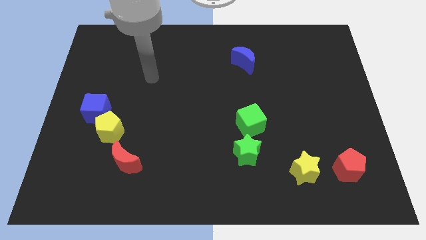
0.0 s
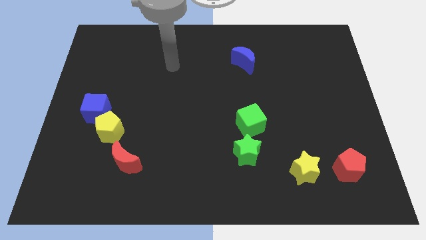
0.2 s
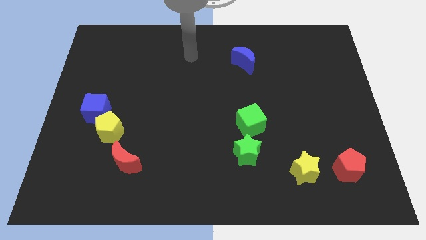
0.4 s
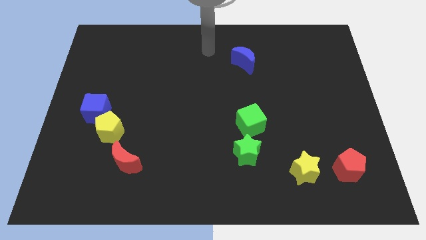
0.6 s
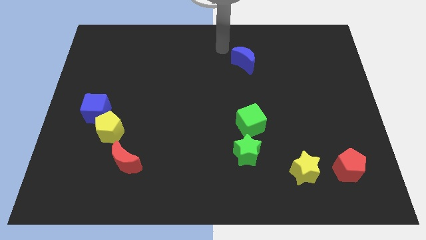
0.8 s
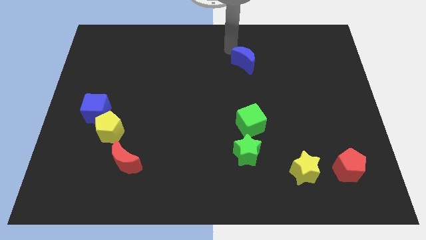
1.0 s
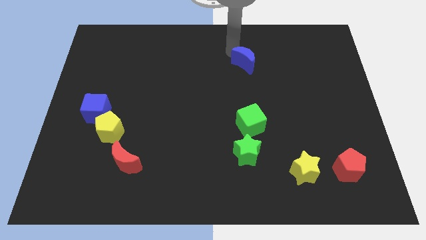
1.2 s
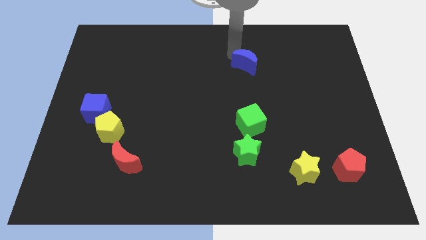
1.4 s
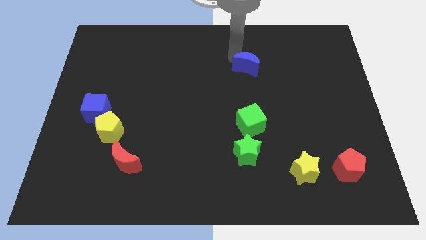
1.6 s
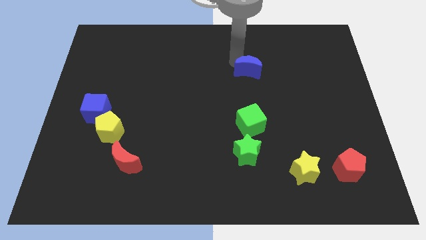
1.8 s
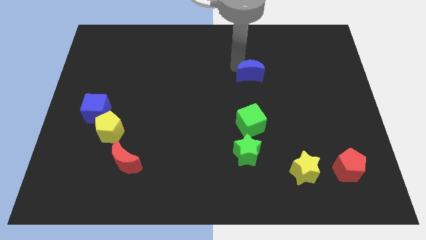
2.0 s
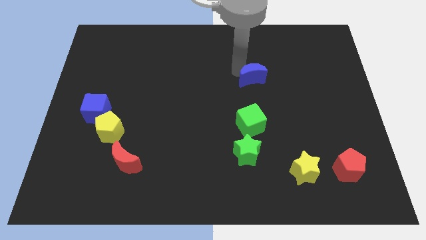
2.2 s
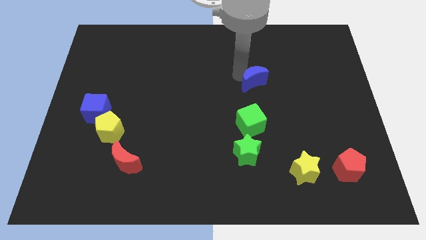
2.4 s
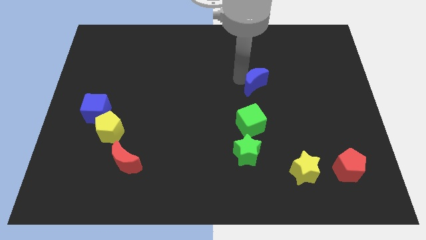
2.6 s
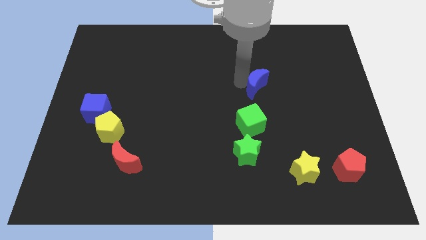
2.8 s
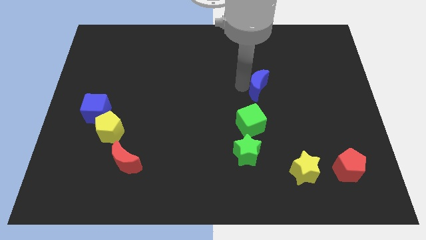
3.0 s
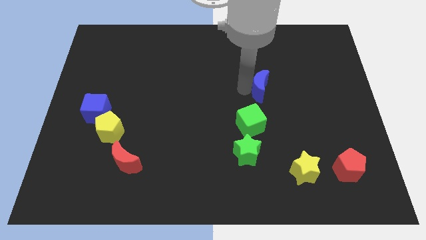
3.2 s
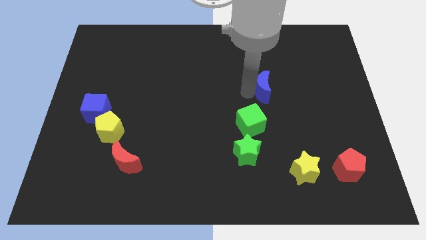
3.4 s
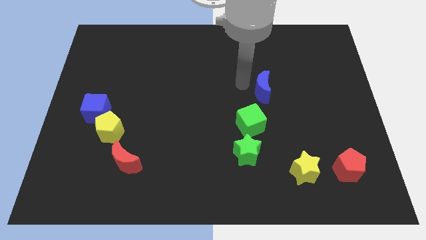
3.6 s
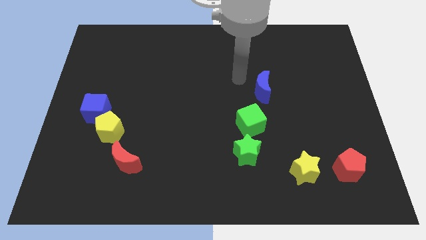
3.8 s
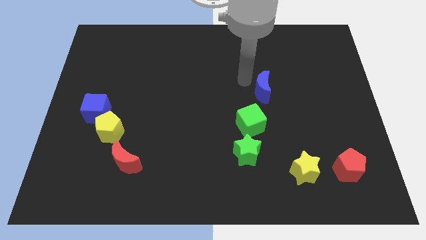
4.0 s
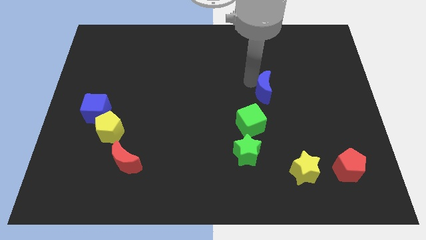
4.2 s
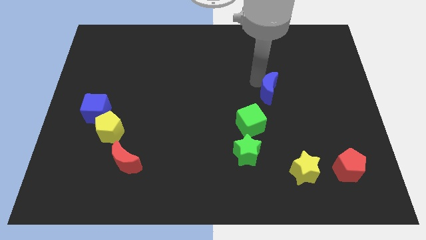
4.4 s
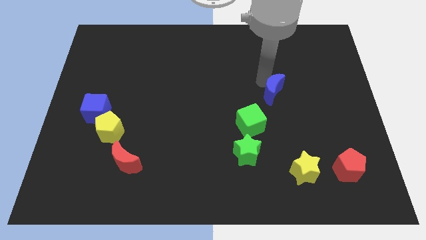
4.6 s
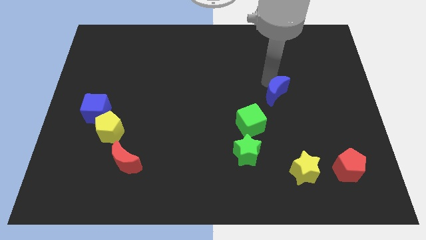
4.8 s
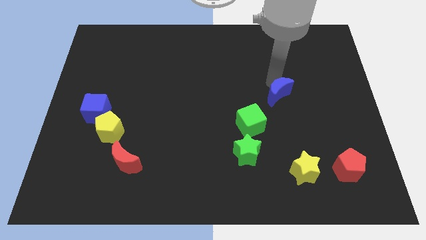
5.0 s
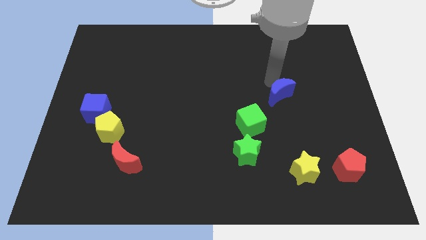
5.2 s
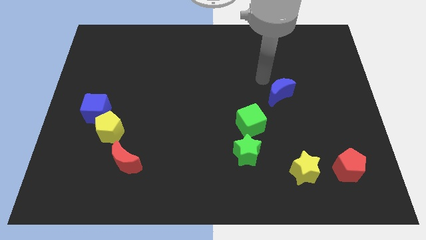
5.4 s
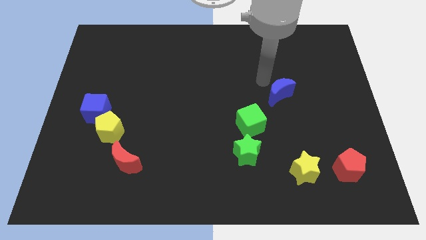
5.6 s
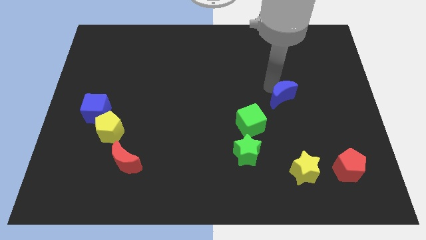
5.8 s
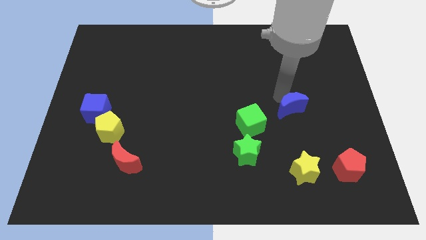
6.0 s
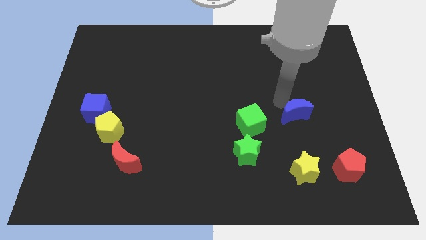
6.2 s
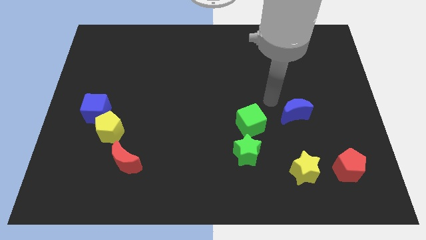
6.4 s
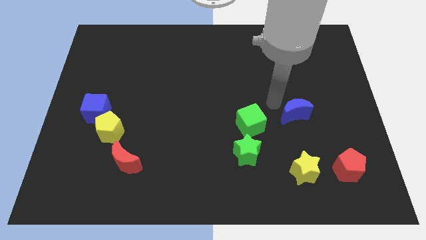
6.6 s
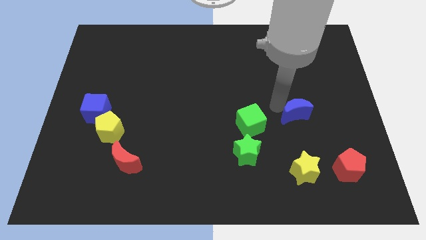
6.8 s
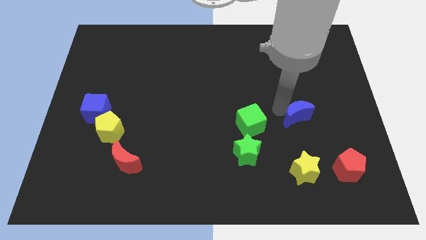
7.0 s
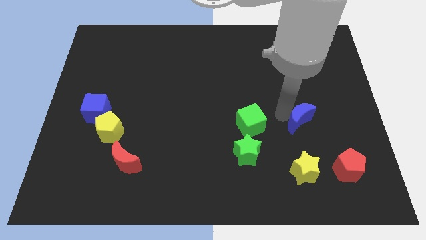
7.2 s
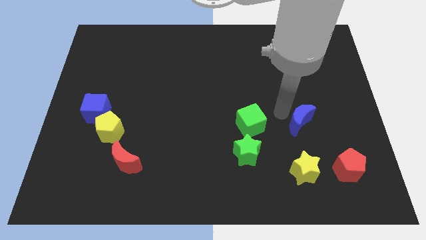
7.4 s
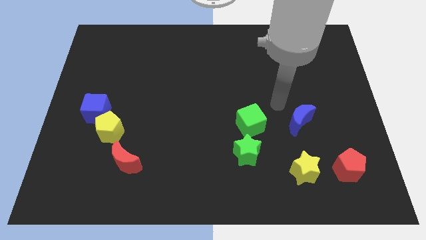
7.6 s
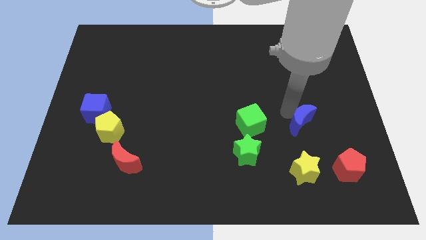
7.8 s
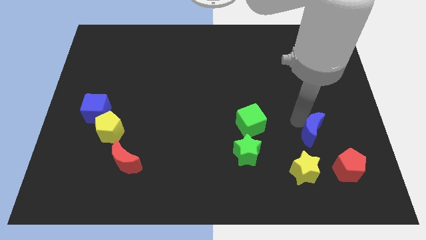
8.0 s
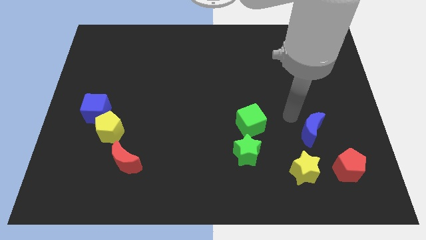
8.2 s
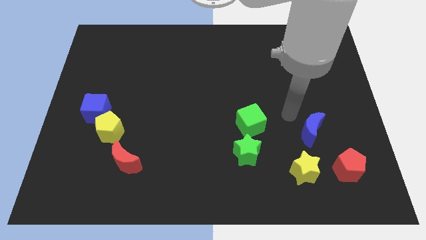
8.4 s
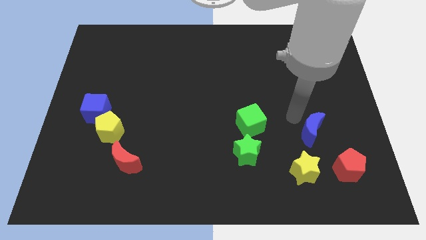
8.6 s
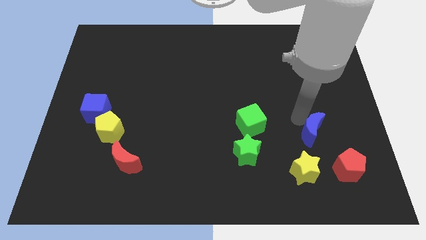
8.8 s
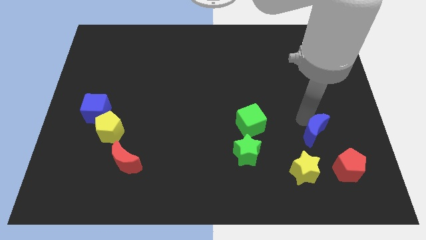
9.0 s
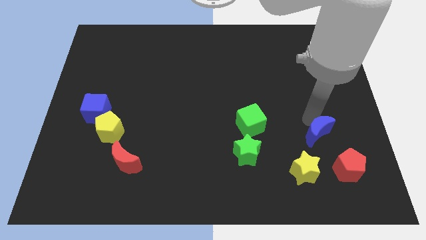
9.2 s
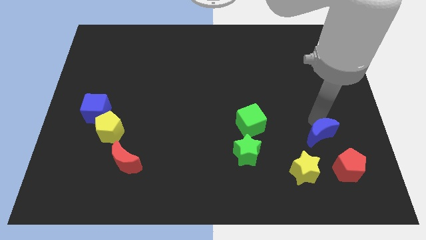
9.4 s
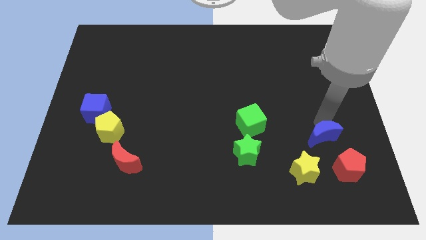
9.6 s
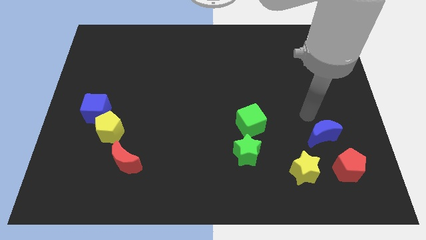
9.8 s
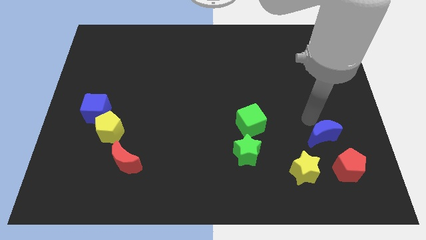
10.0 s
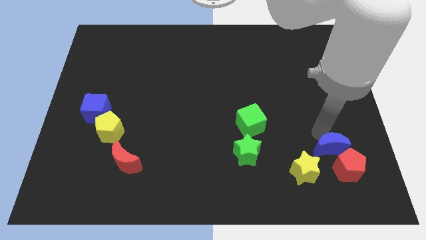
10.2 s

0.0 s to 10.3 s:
put the blue moon to the red pentagon

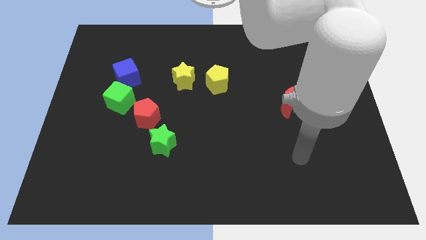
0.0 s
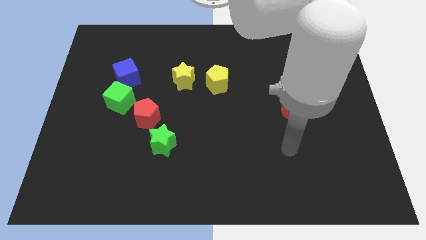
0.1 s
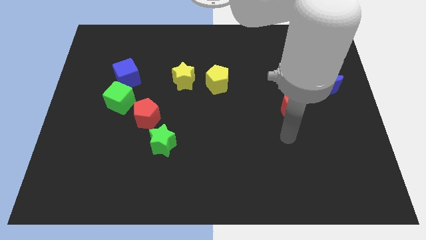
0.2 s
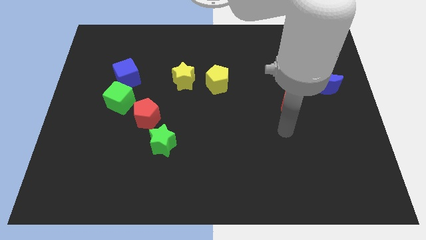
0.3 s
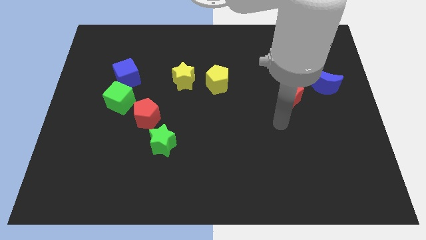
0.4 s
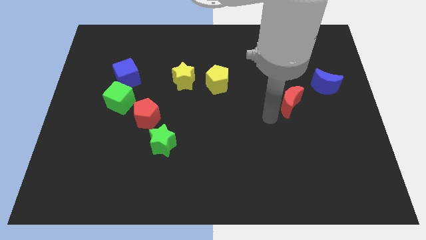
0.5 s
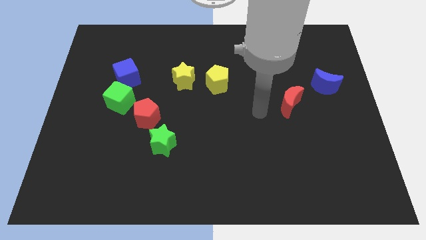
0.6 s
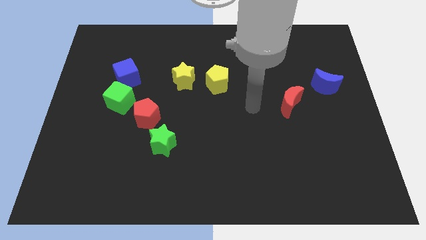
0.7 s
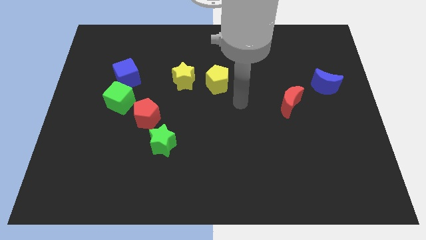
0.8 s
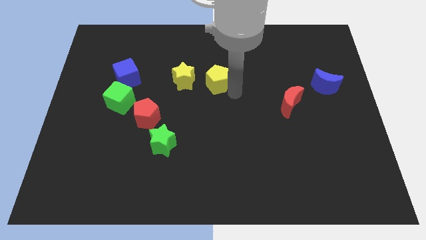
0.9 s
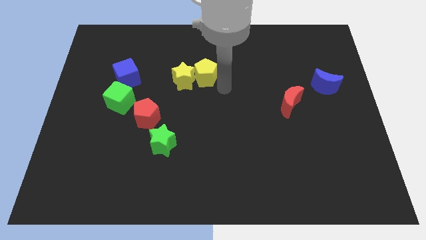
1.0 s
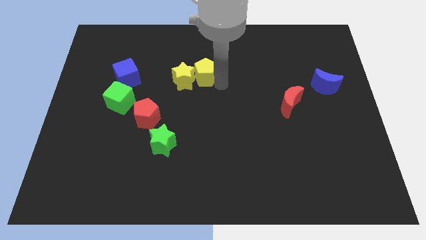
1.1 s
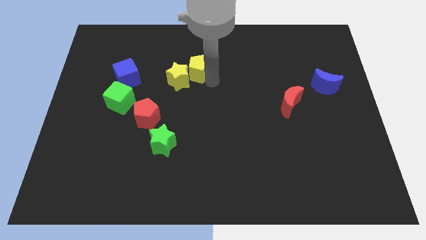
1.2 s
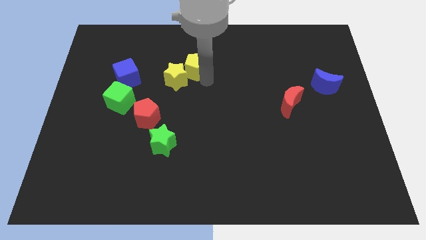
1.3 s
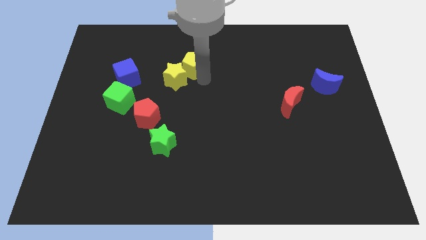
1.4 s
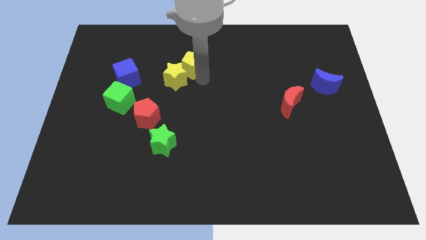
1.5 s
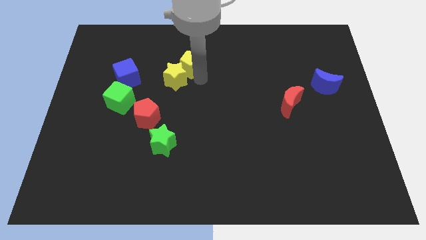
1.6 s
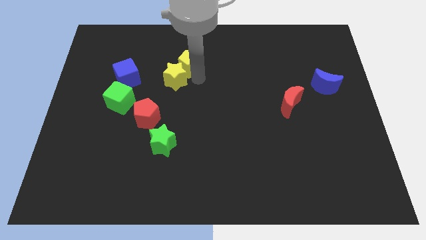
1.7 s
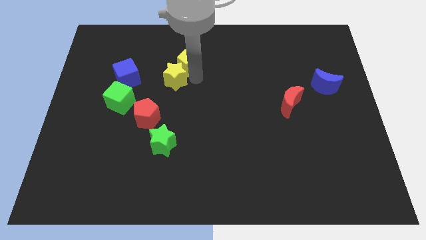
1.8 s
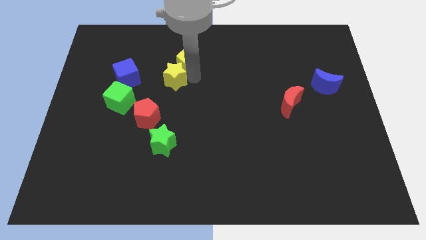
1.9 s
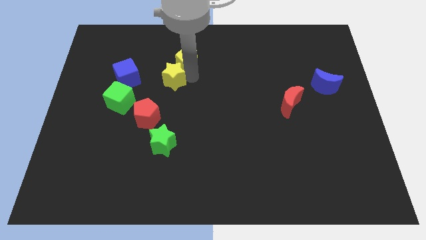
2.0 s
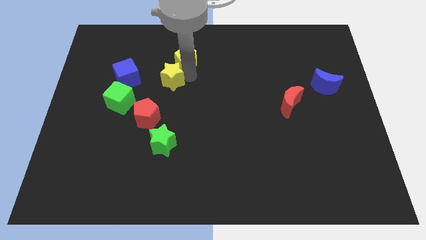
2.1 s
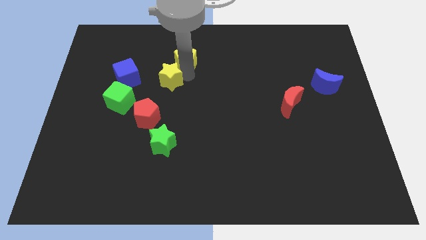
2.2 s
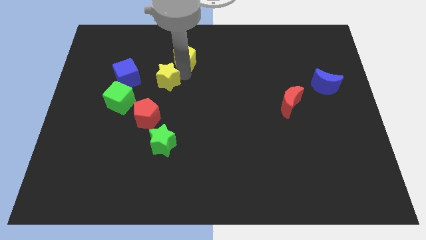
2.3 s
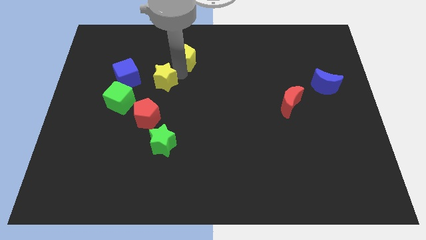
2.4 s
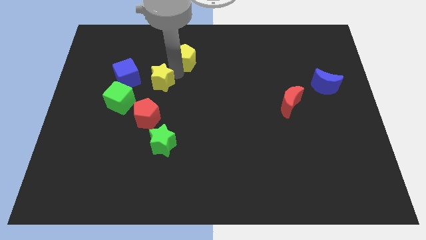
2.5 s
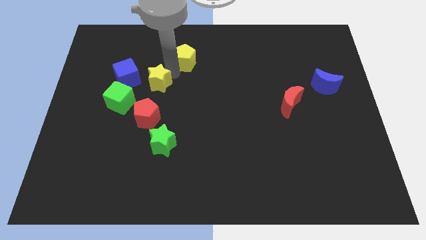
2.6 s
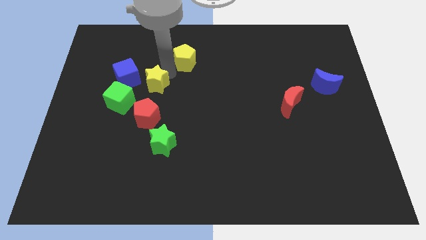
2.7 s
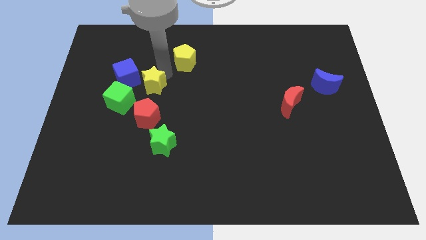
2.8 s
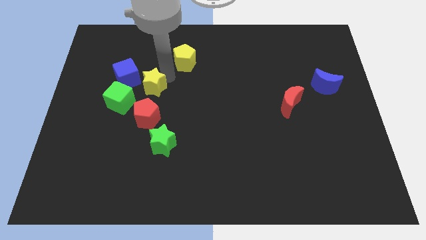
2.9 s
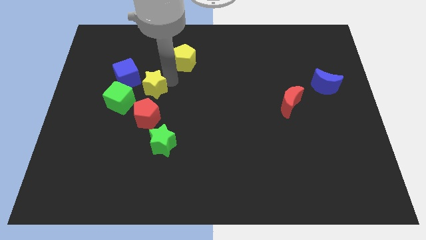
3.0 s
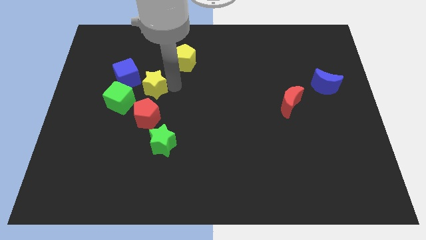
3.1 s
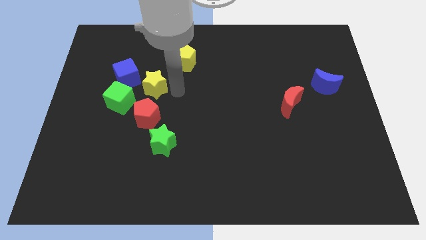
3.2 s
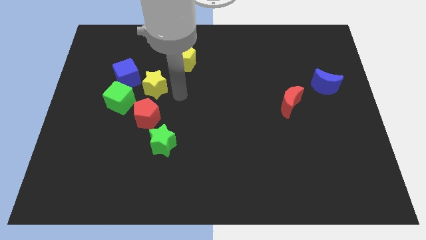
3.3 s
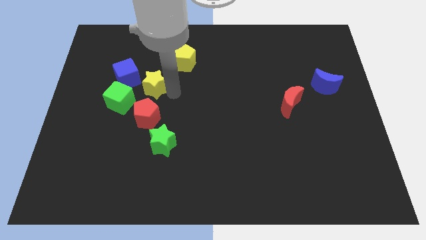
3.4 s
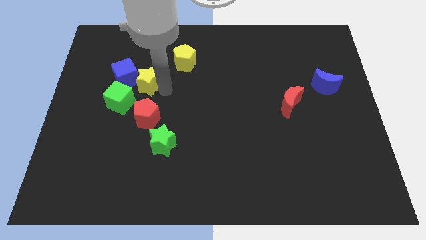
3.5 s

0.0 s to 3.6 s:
put the yellow star close to the blue cube
